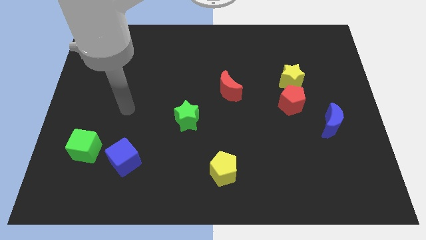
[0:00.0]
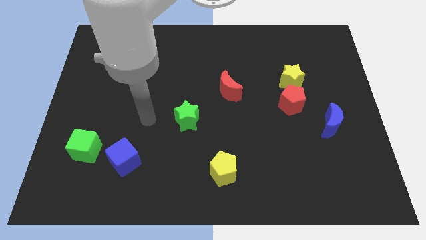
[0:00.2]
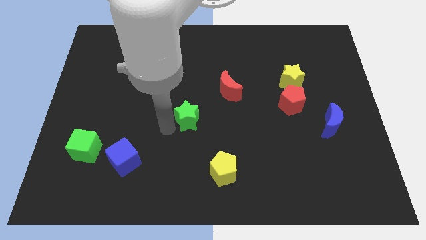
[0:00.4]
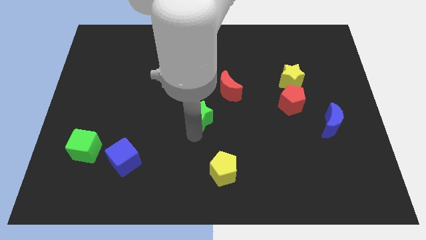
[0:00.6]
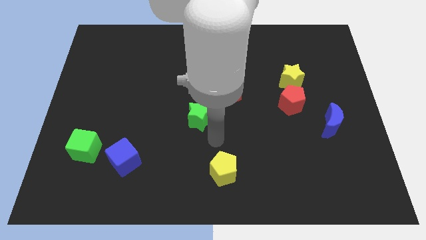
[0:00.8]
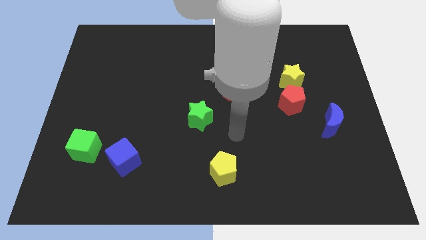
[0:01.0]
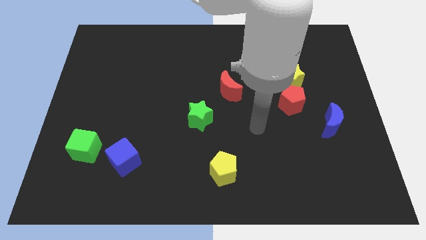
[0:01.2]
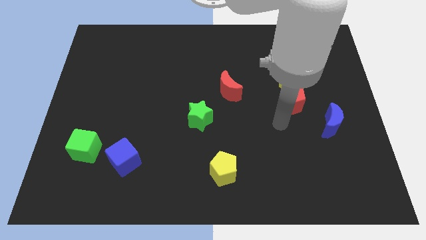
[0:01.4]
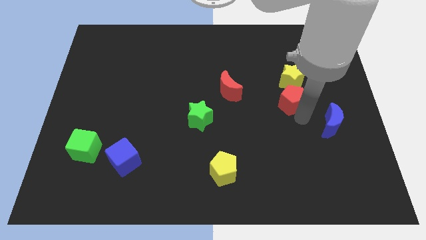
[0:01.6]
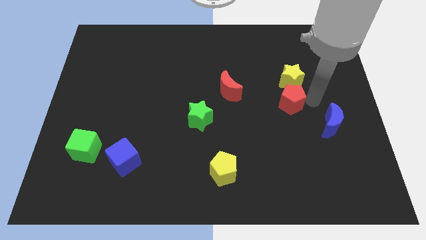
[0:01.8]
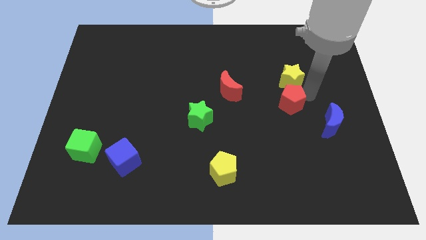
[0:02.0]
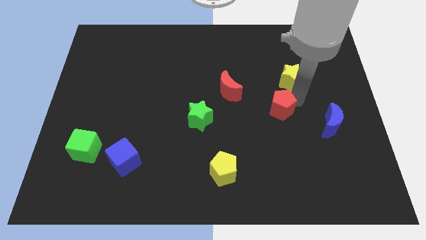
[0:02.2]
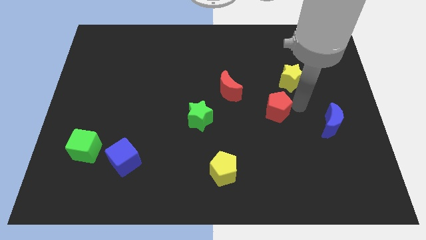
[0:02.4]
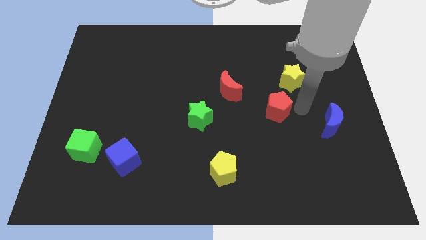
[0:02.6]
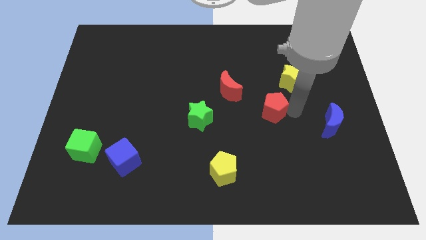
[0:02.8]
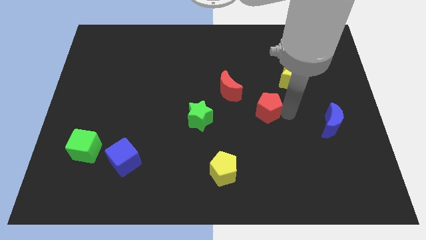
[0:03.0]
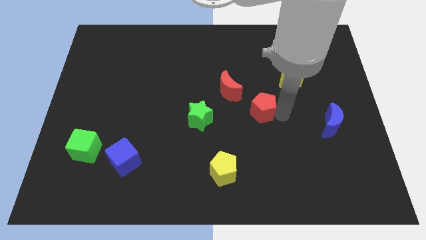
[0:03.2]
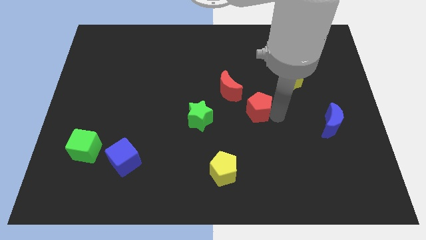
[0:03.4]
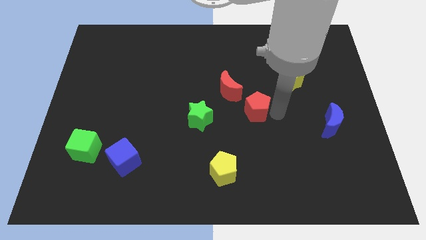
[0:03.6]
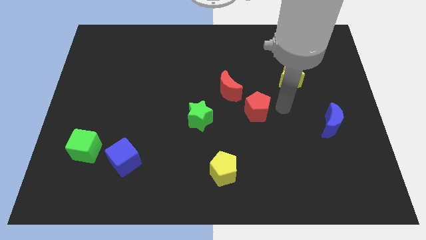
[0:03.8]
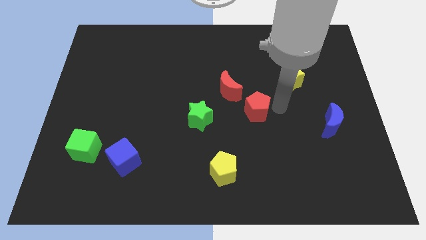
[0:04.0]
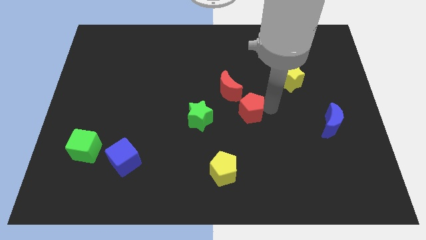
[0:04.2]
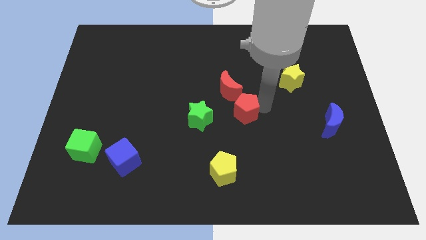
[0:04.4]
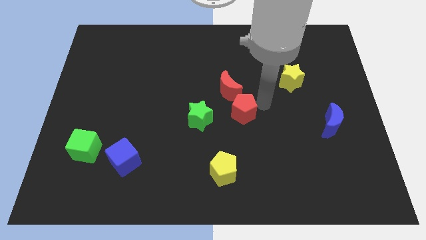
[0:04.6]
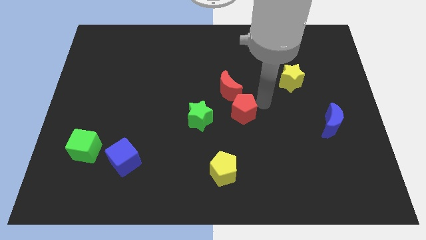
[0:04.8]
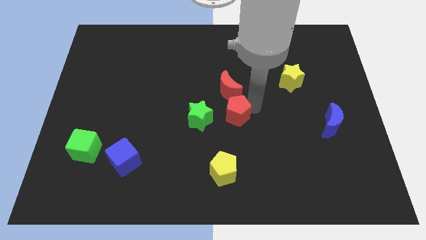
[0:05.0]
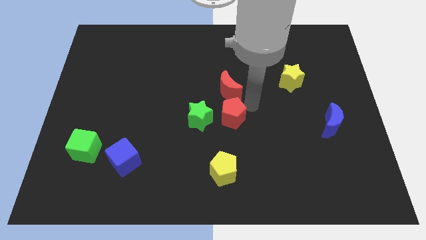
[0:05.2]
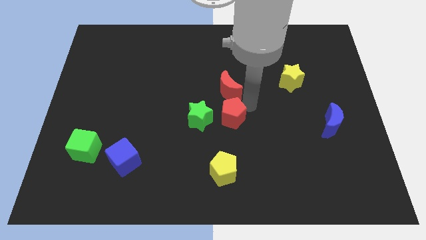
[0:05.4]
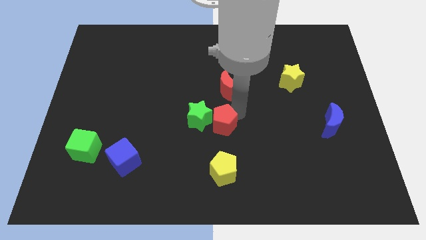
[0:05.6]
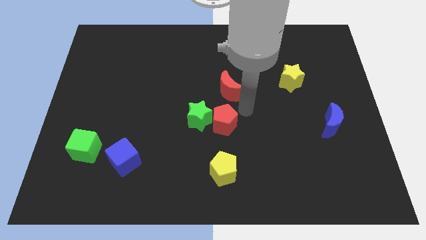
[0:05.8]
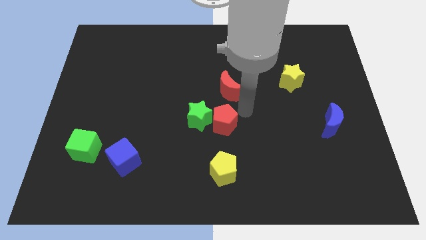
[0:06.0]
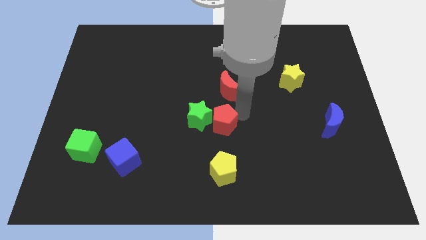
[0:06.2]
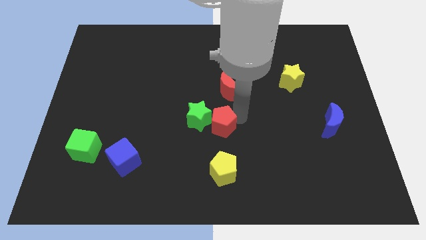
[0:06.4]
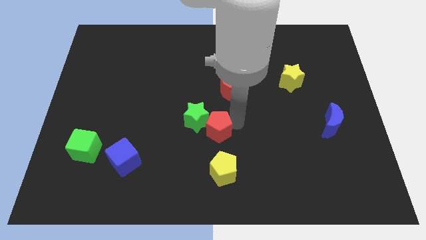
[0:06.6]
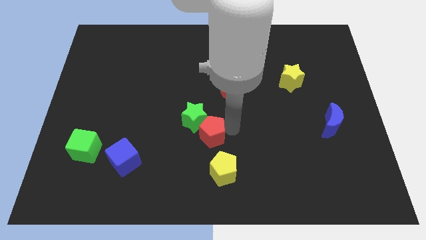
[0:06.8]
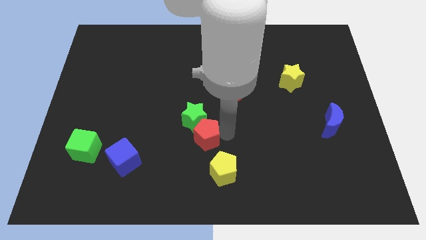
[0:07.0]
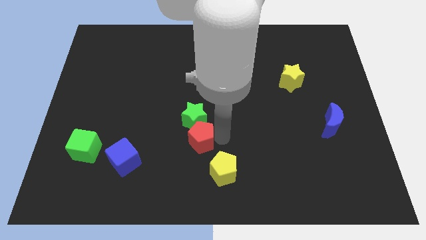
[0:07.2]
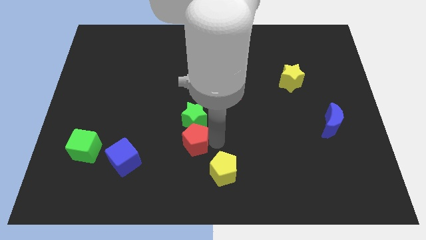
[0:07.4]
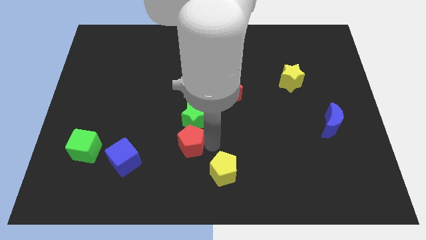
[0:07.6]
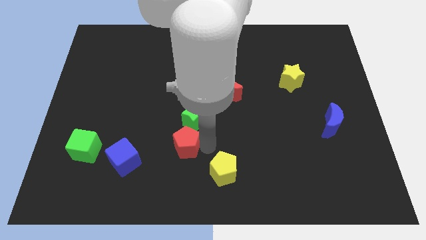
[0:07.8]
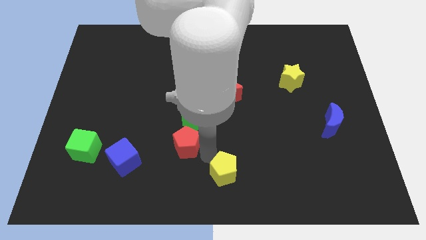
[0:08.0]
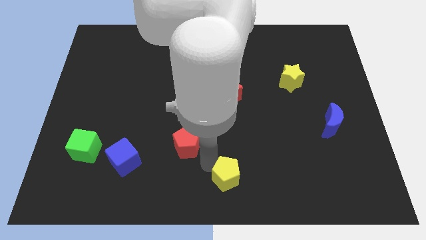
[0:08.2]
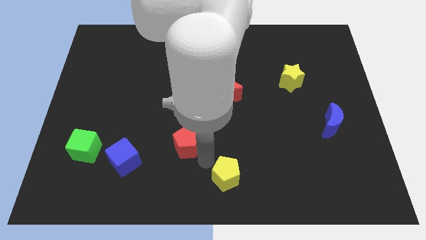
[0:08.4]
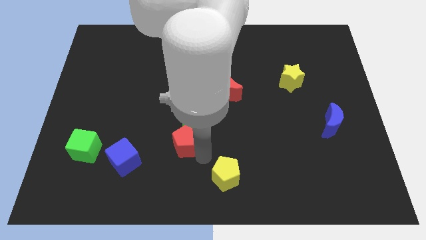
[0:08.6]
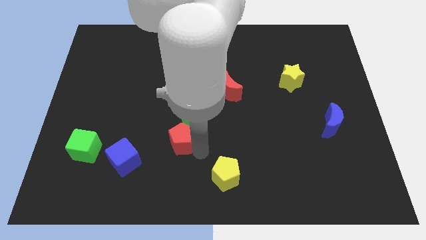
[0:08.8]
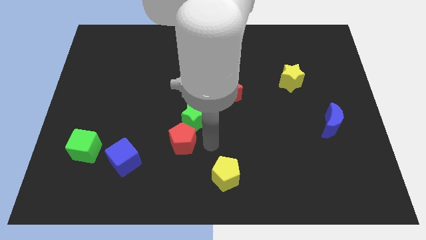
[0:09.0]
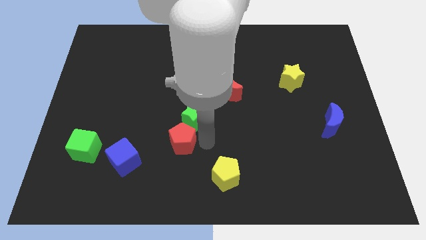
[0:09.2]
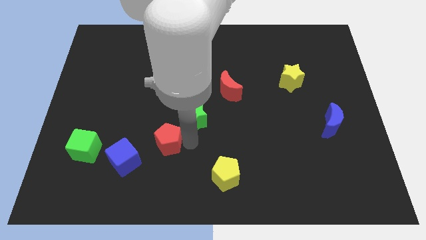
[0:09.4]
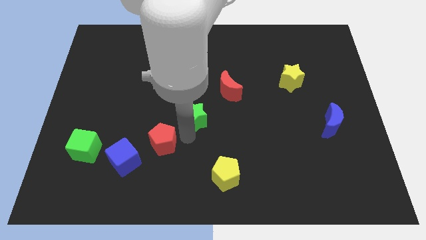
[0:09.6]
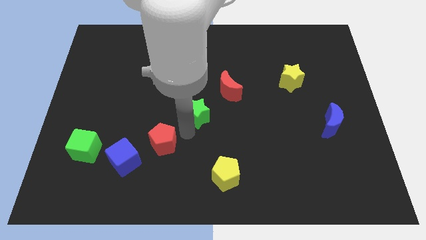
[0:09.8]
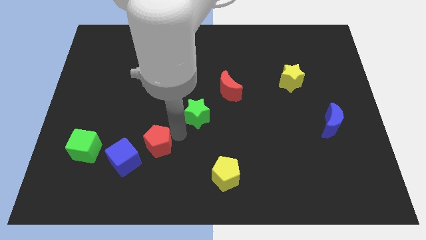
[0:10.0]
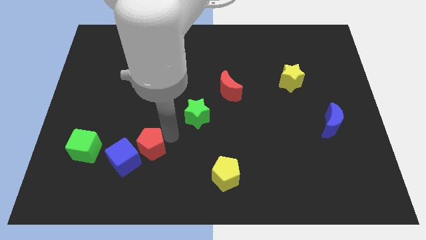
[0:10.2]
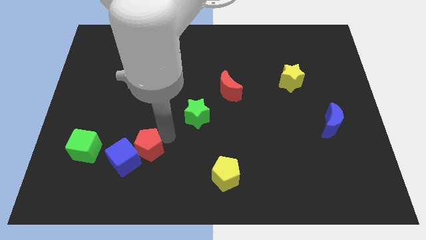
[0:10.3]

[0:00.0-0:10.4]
push the red pentagon close to the blue cube

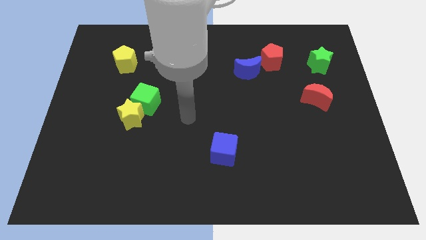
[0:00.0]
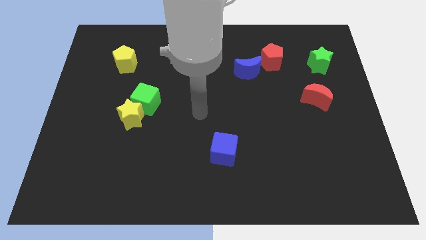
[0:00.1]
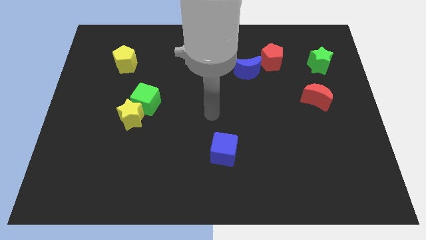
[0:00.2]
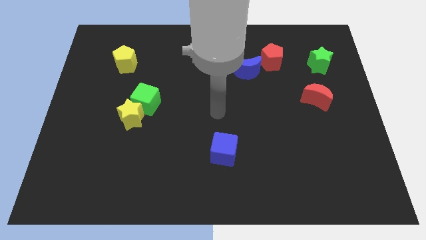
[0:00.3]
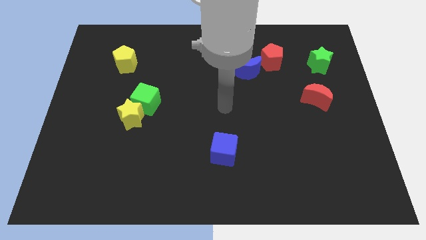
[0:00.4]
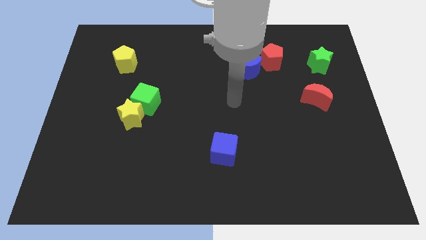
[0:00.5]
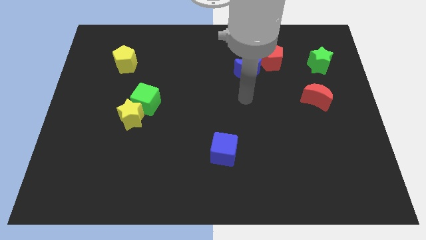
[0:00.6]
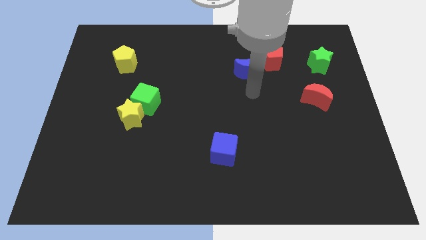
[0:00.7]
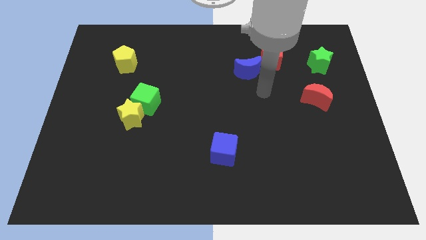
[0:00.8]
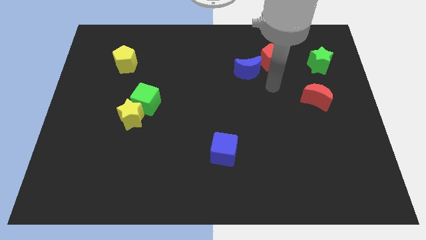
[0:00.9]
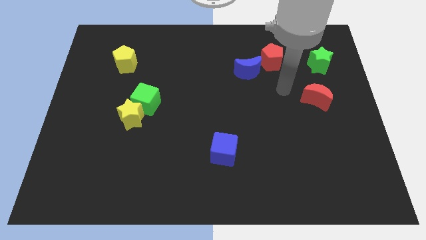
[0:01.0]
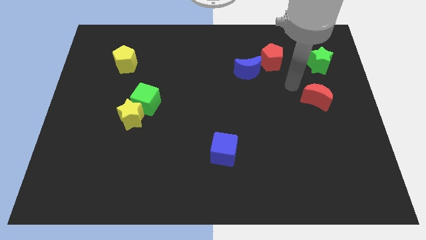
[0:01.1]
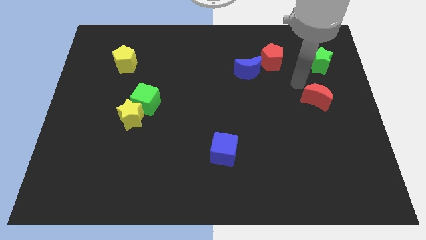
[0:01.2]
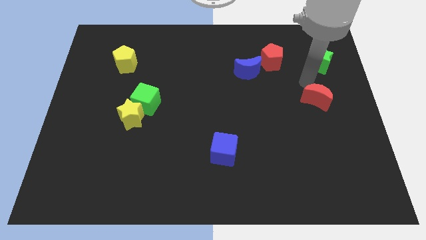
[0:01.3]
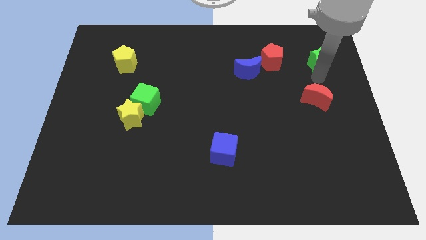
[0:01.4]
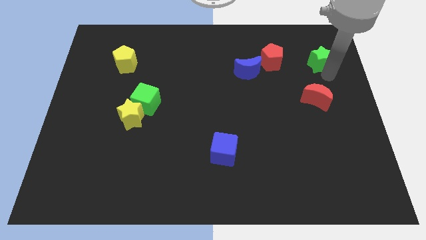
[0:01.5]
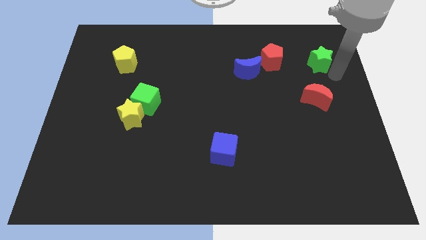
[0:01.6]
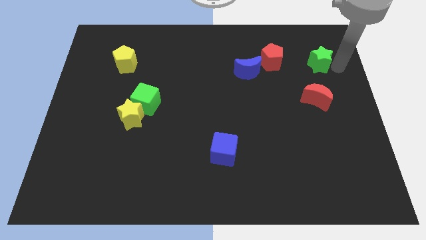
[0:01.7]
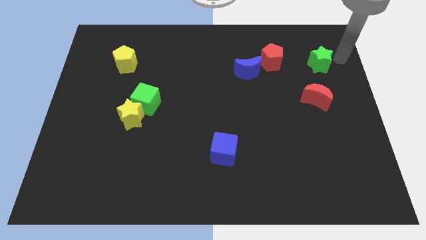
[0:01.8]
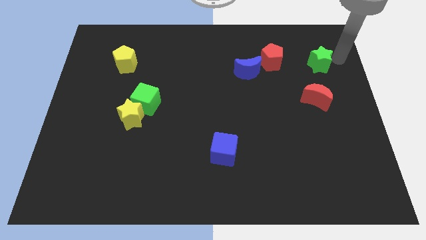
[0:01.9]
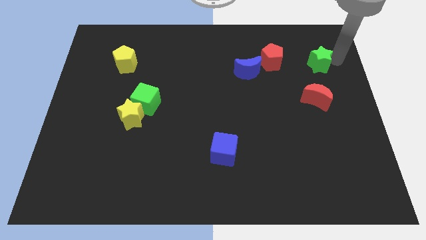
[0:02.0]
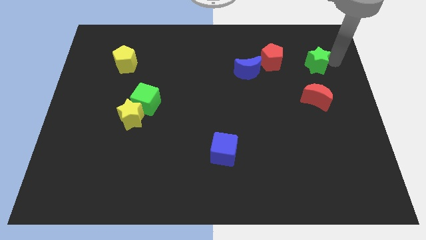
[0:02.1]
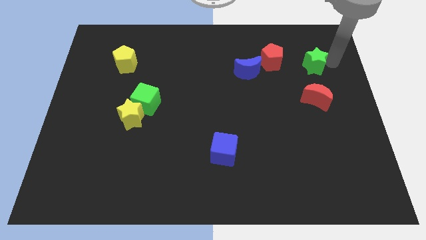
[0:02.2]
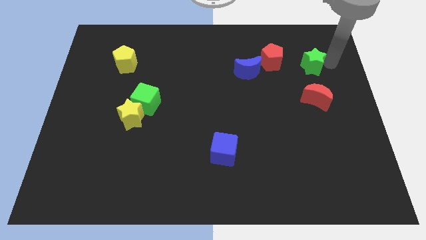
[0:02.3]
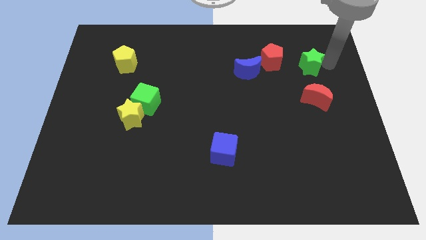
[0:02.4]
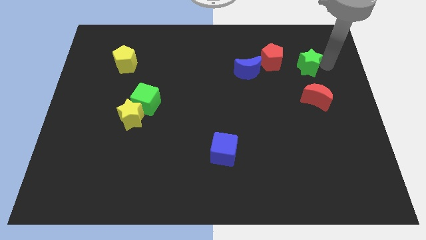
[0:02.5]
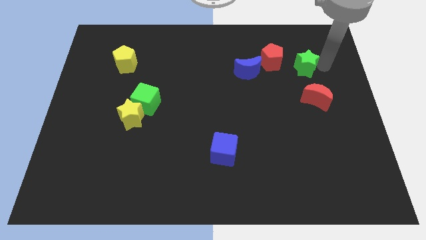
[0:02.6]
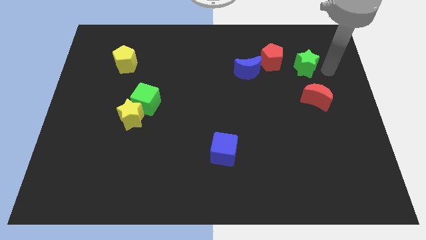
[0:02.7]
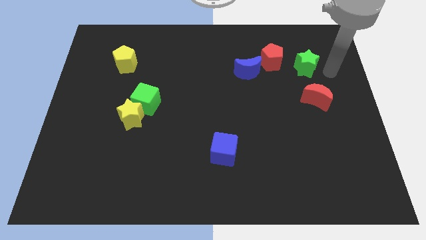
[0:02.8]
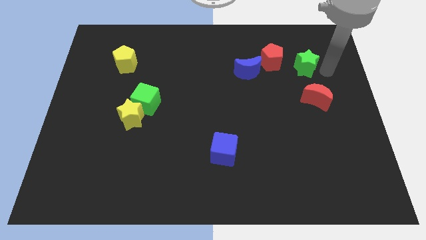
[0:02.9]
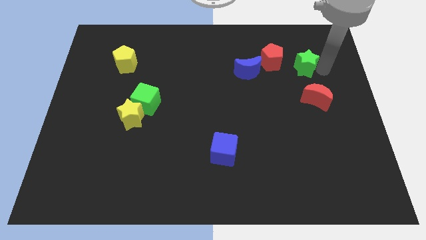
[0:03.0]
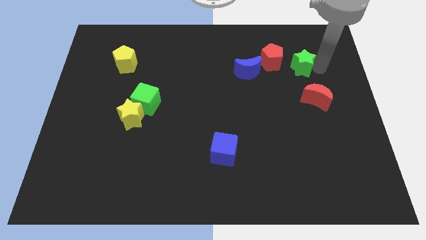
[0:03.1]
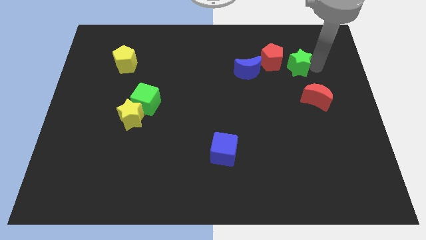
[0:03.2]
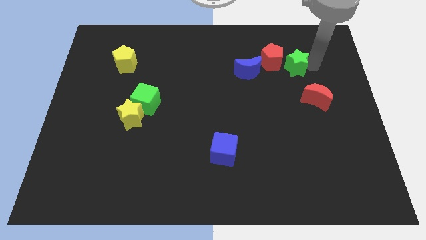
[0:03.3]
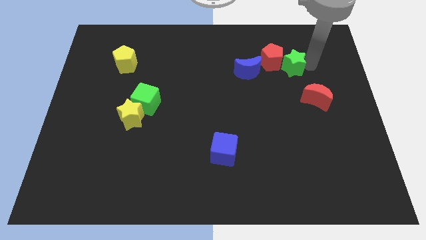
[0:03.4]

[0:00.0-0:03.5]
slide the green star to the red pentagon
